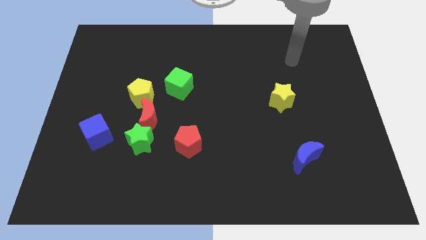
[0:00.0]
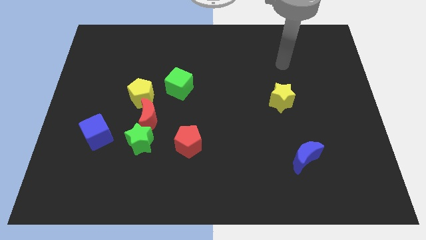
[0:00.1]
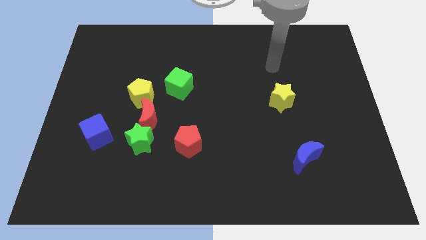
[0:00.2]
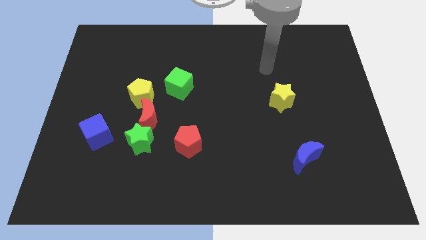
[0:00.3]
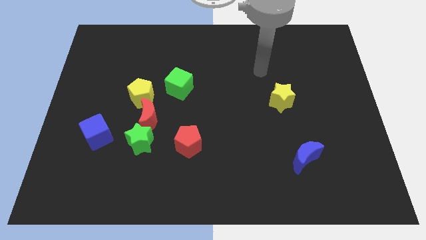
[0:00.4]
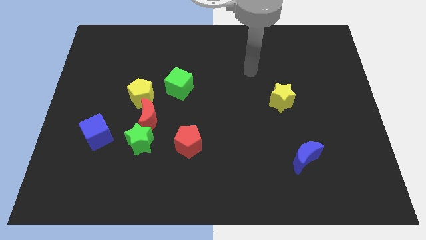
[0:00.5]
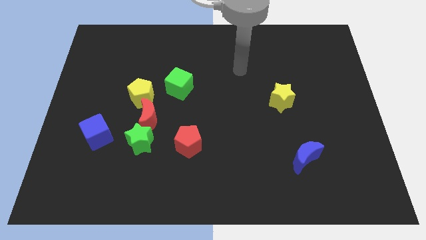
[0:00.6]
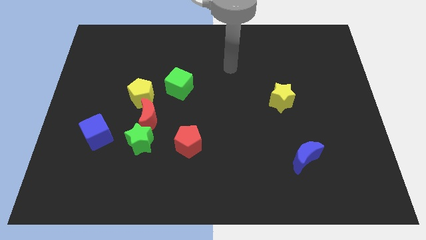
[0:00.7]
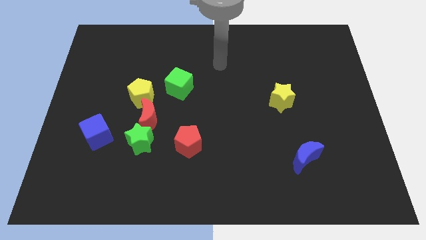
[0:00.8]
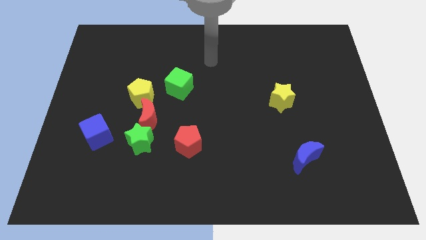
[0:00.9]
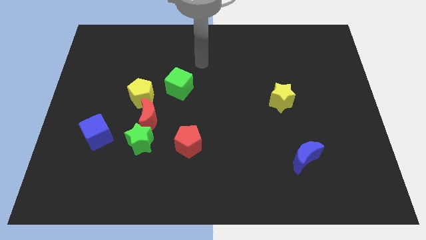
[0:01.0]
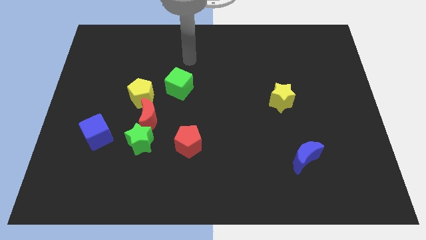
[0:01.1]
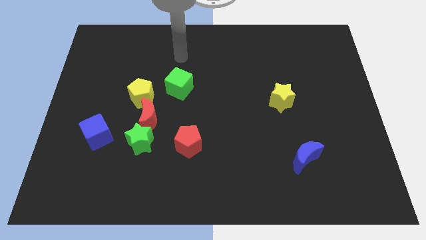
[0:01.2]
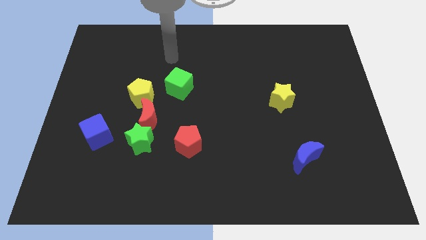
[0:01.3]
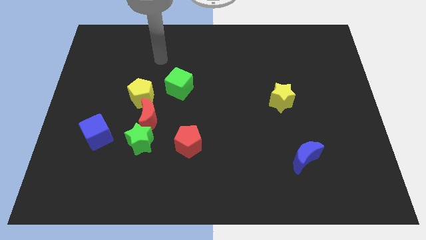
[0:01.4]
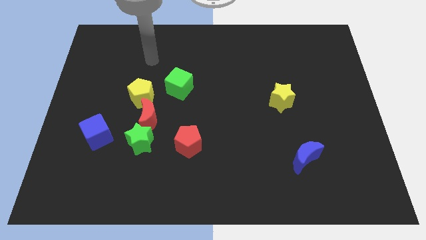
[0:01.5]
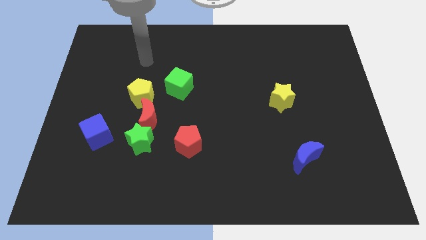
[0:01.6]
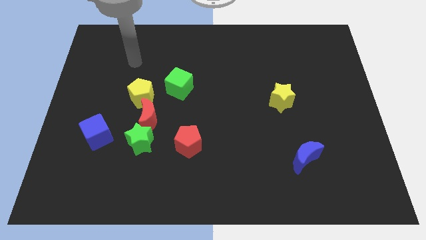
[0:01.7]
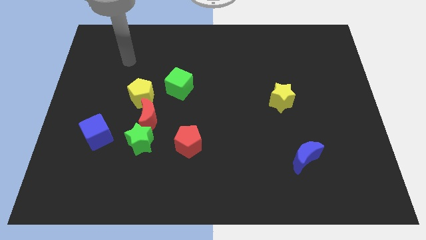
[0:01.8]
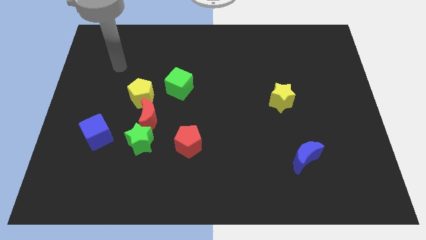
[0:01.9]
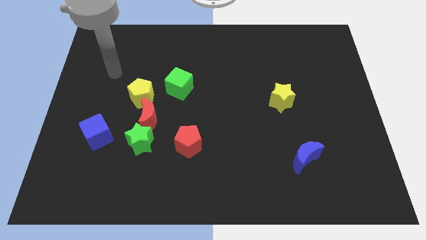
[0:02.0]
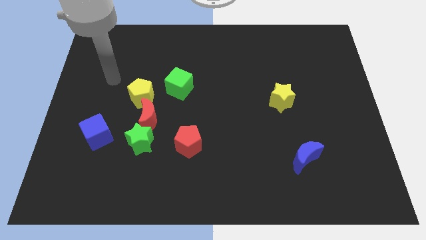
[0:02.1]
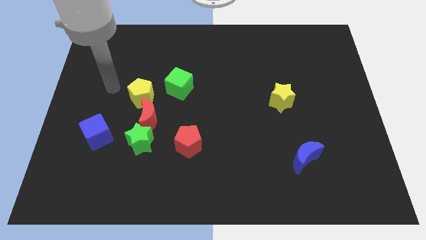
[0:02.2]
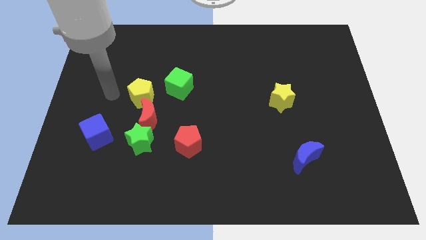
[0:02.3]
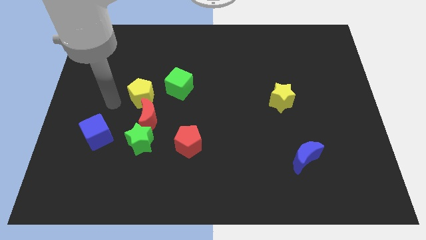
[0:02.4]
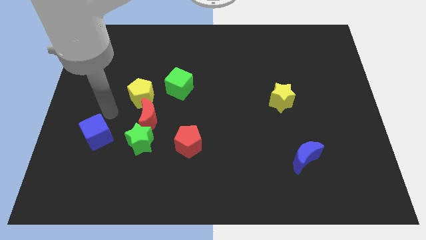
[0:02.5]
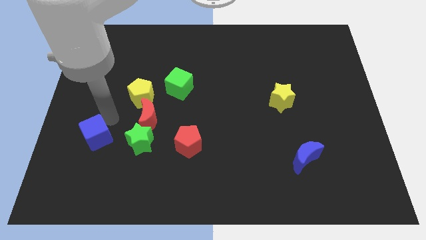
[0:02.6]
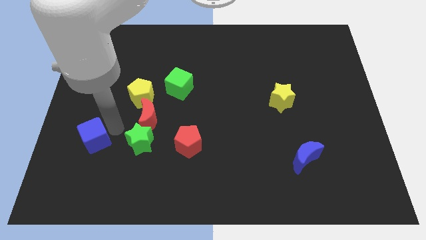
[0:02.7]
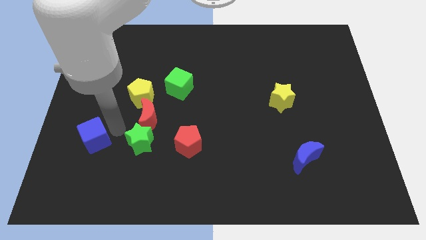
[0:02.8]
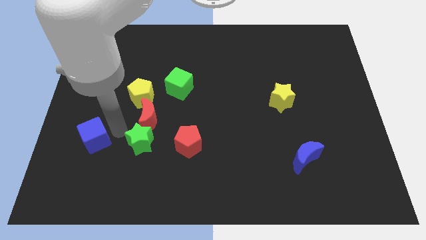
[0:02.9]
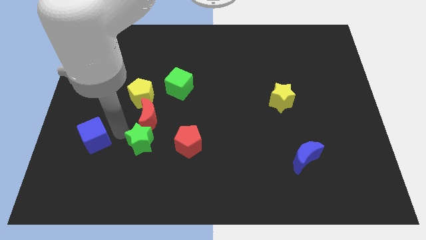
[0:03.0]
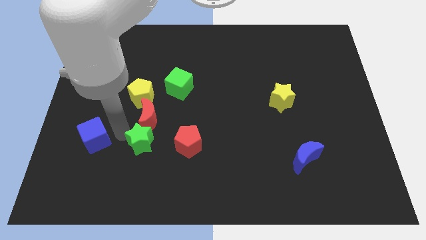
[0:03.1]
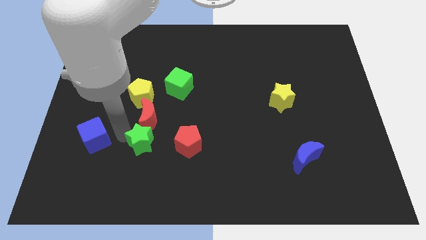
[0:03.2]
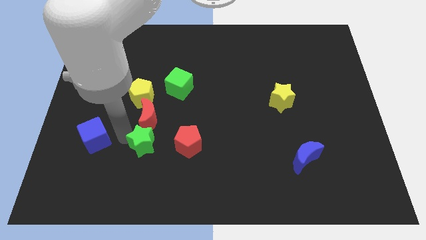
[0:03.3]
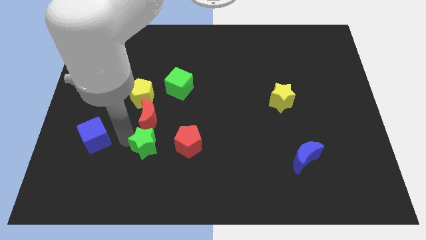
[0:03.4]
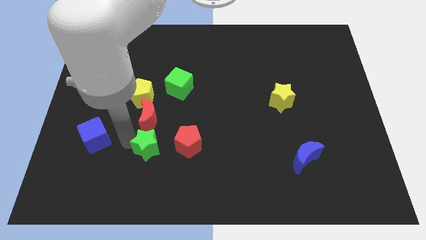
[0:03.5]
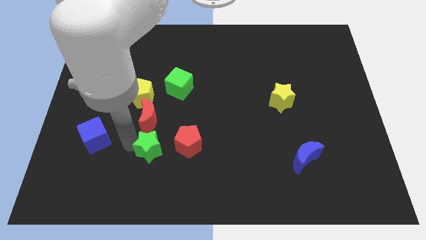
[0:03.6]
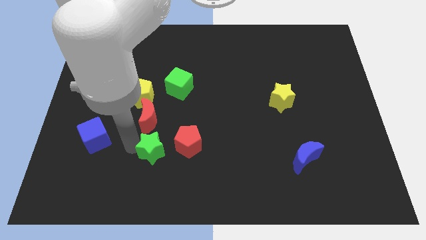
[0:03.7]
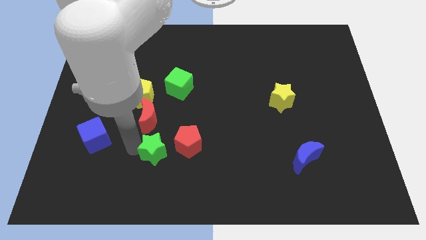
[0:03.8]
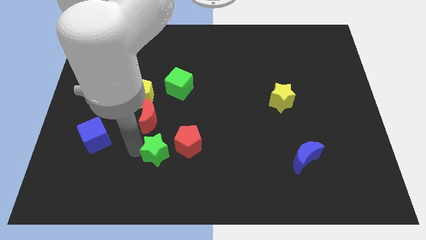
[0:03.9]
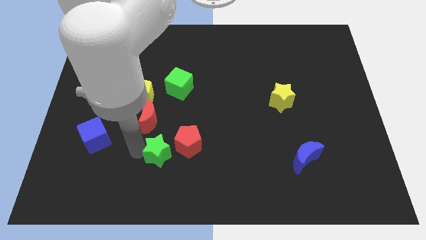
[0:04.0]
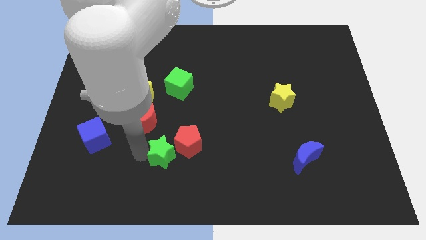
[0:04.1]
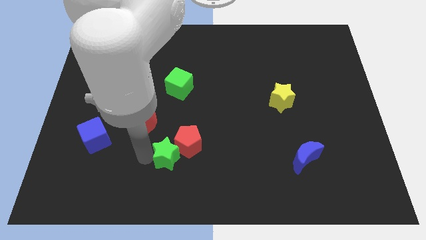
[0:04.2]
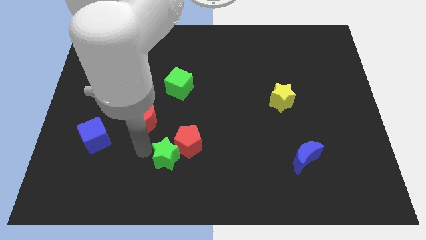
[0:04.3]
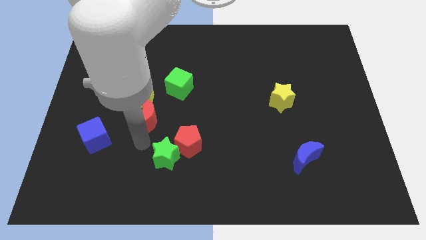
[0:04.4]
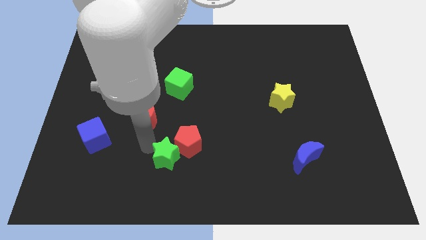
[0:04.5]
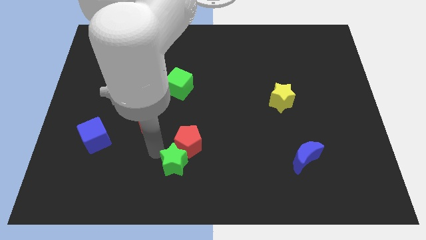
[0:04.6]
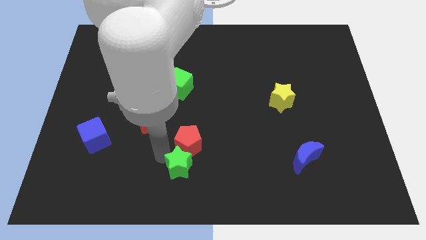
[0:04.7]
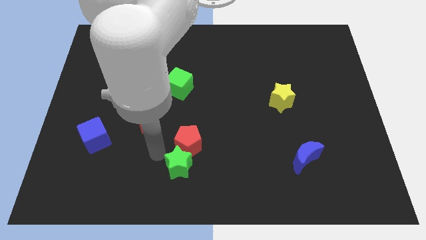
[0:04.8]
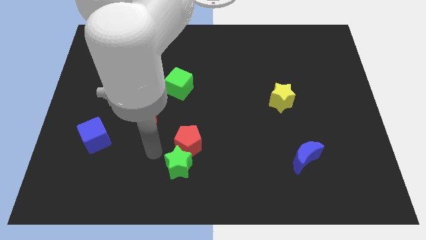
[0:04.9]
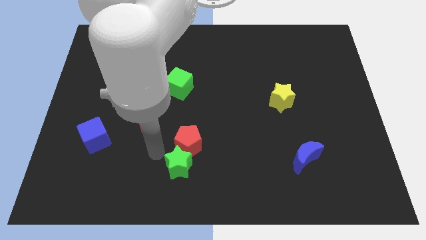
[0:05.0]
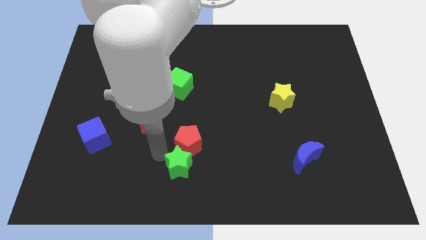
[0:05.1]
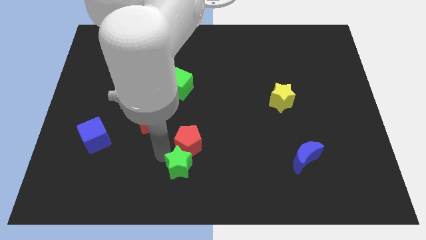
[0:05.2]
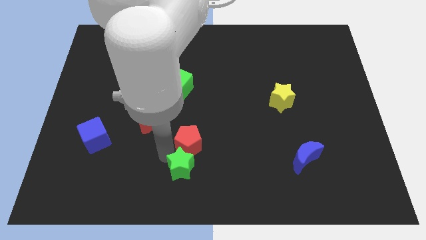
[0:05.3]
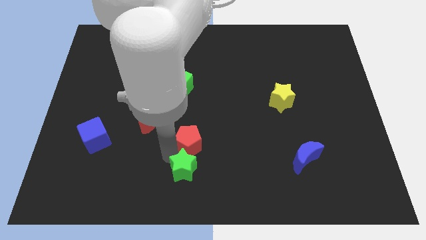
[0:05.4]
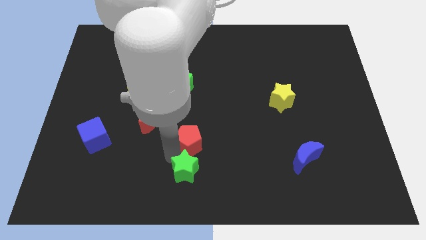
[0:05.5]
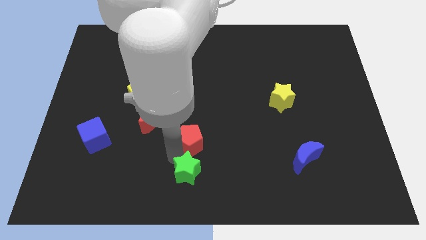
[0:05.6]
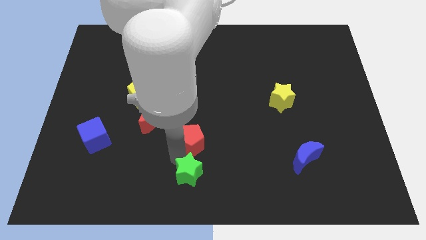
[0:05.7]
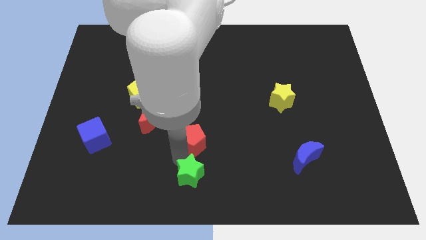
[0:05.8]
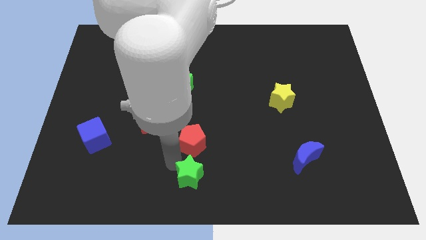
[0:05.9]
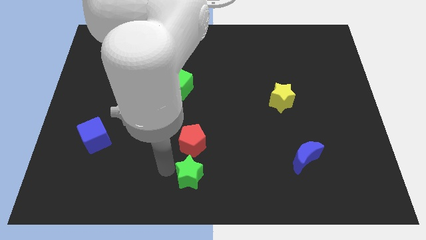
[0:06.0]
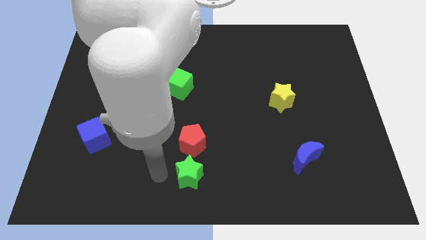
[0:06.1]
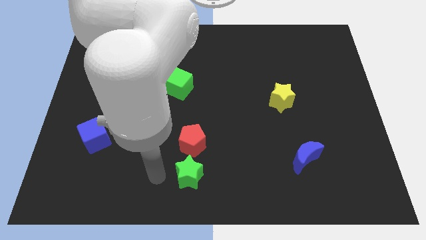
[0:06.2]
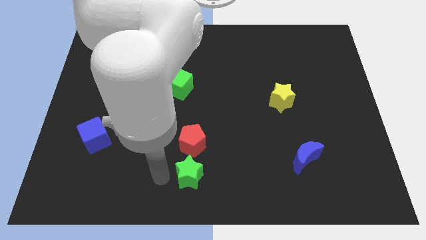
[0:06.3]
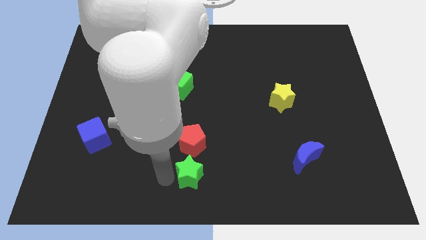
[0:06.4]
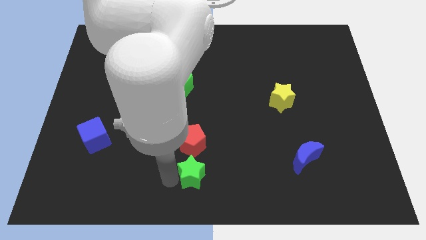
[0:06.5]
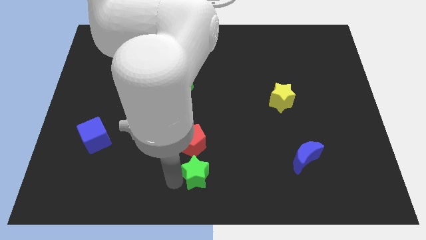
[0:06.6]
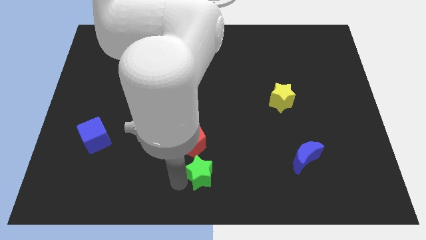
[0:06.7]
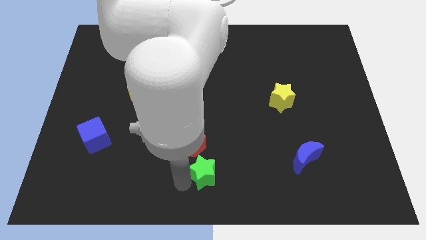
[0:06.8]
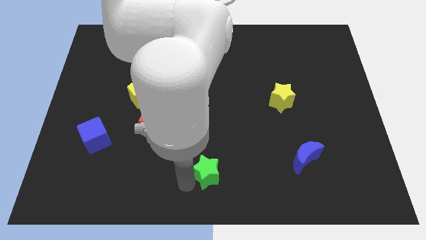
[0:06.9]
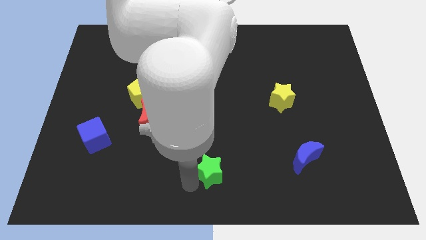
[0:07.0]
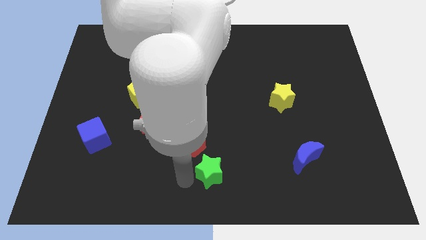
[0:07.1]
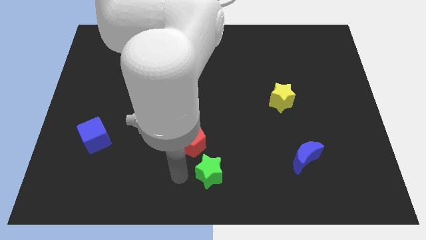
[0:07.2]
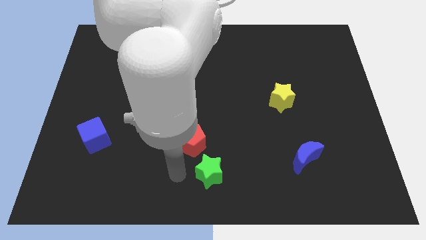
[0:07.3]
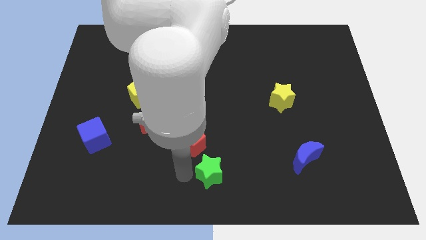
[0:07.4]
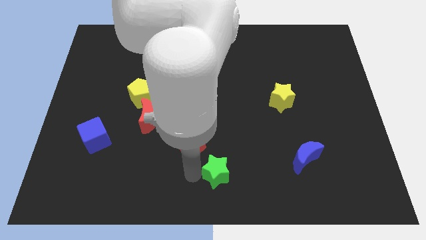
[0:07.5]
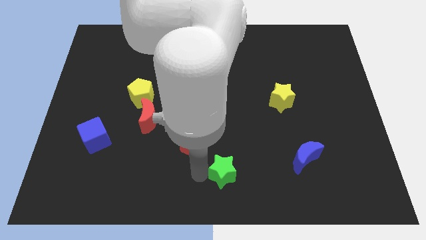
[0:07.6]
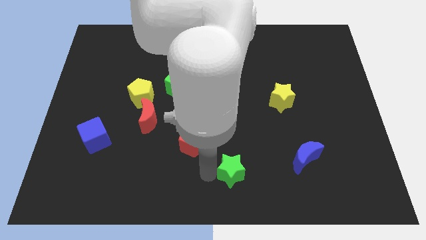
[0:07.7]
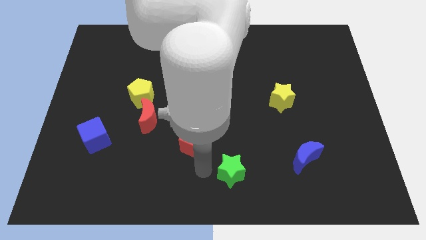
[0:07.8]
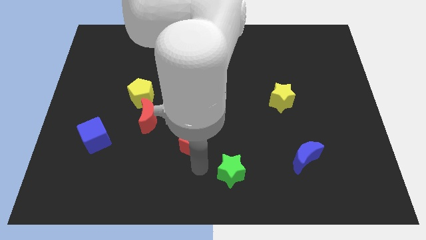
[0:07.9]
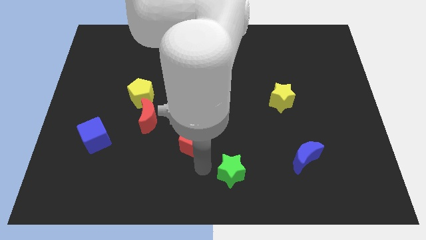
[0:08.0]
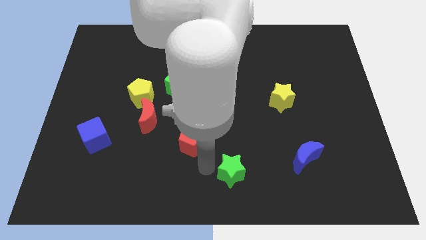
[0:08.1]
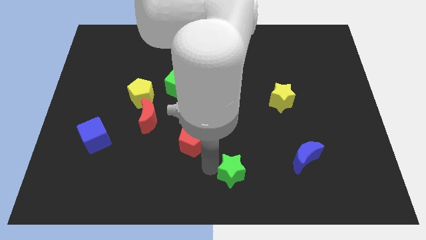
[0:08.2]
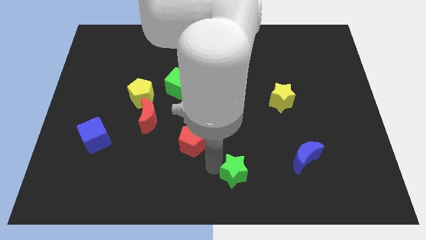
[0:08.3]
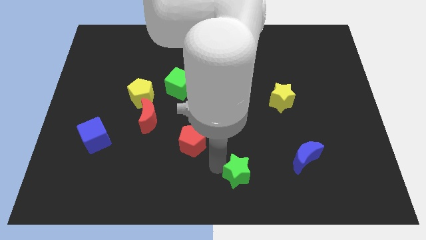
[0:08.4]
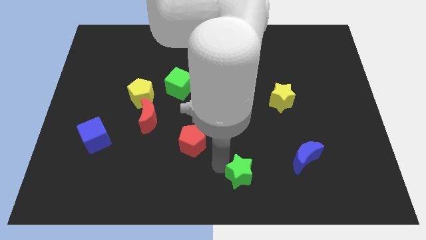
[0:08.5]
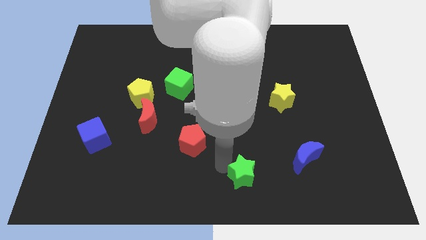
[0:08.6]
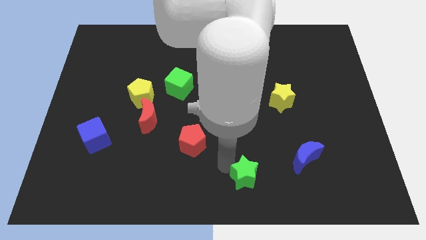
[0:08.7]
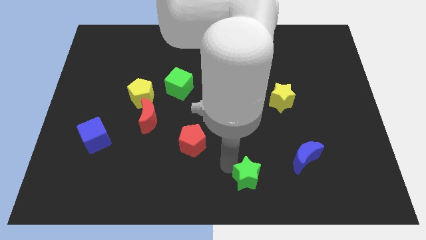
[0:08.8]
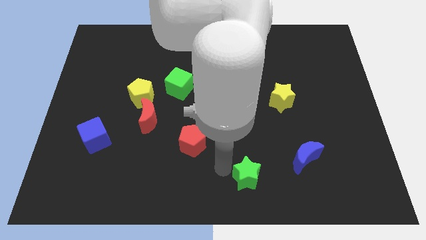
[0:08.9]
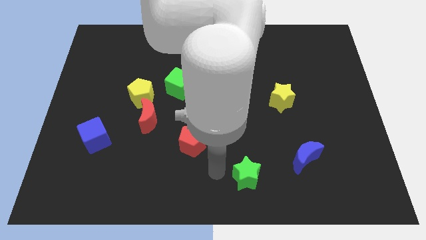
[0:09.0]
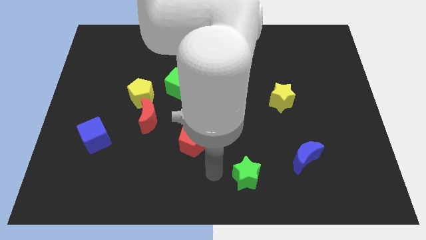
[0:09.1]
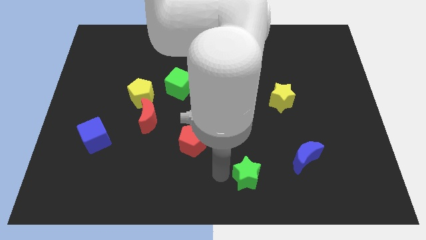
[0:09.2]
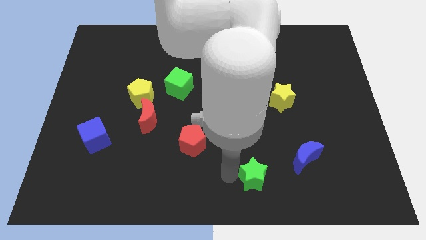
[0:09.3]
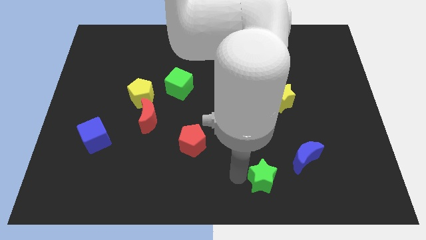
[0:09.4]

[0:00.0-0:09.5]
put the green star diagonally down and to the left of the blue moon
